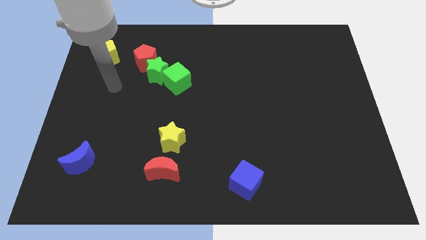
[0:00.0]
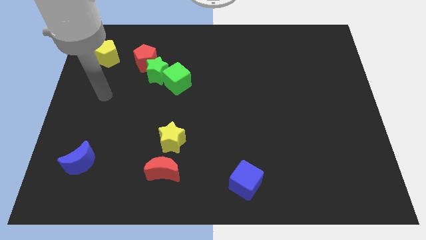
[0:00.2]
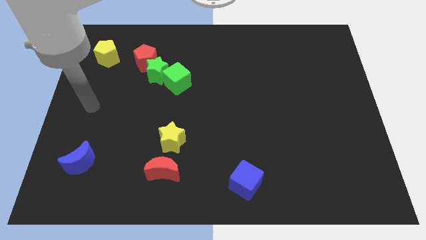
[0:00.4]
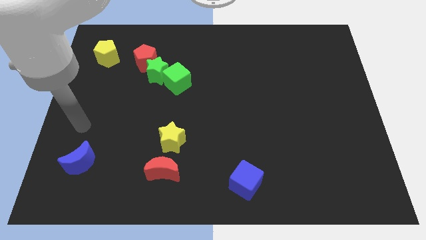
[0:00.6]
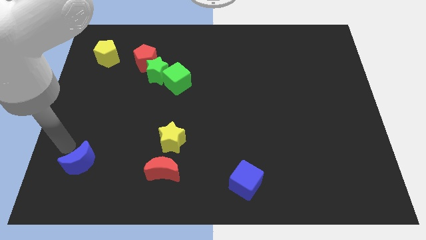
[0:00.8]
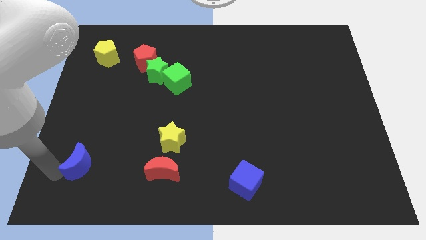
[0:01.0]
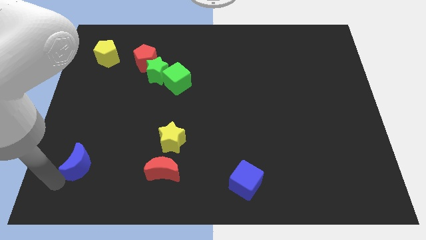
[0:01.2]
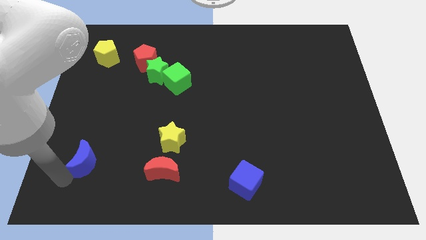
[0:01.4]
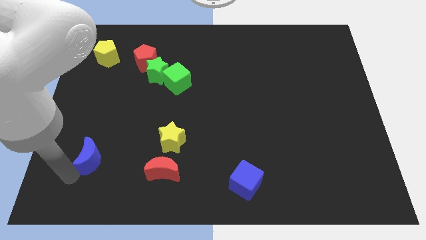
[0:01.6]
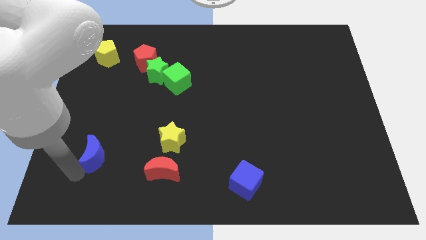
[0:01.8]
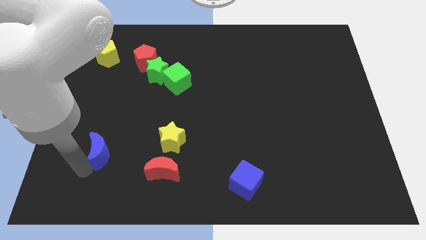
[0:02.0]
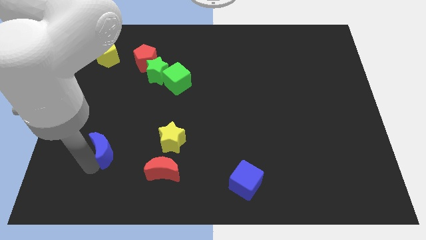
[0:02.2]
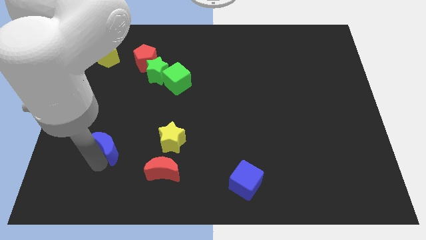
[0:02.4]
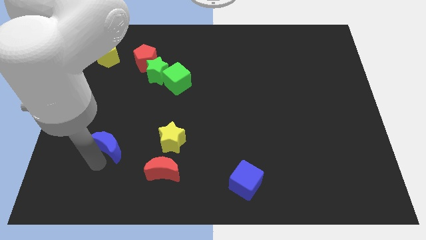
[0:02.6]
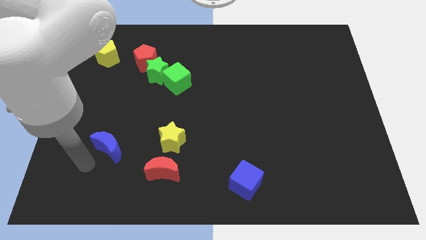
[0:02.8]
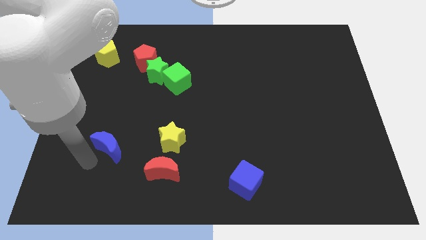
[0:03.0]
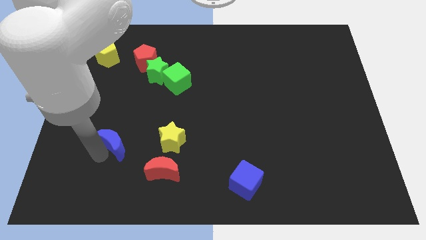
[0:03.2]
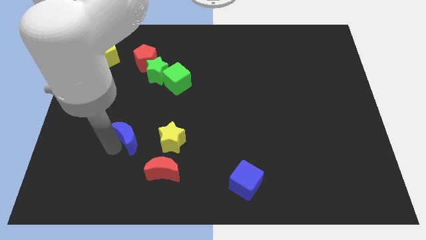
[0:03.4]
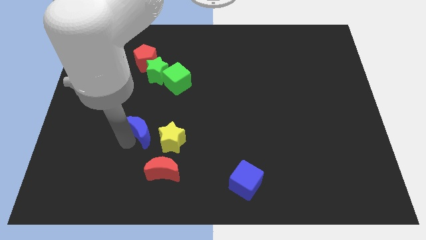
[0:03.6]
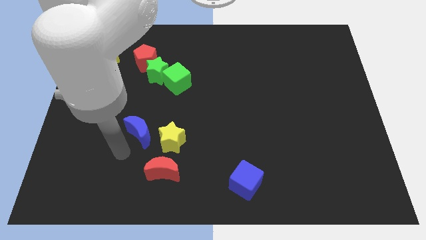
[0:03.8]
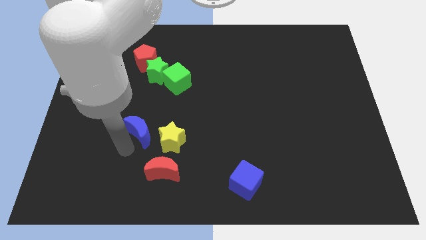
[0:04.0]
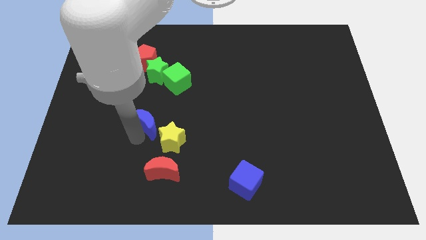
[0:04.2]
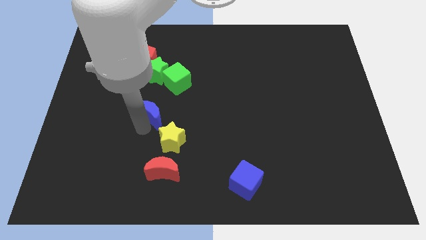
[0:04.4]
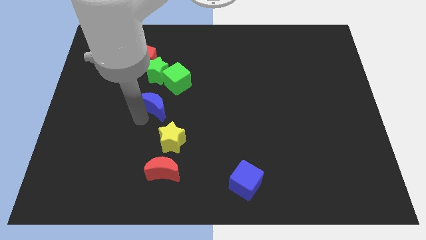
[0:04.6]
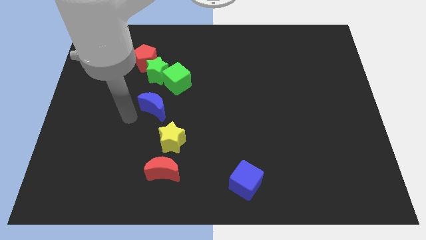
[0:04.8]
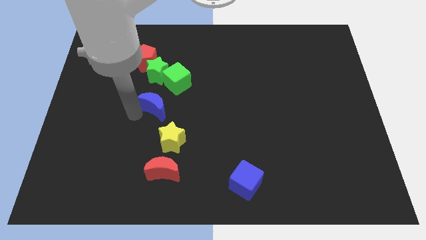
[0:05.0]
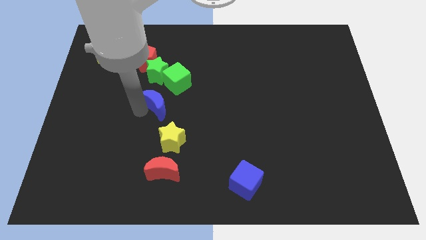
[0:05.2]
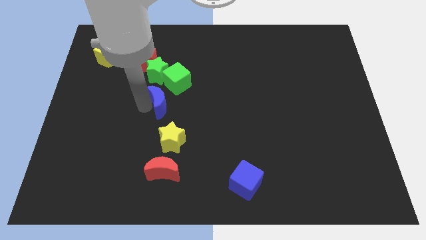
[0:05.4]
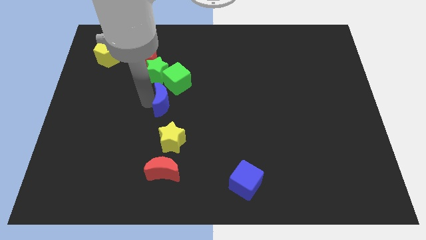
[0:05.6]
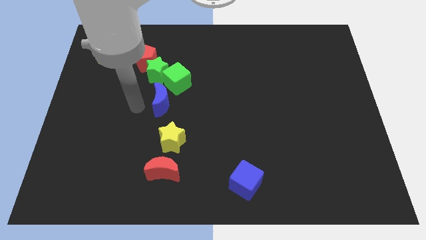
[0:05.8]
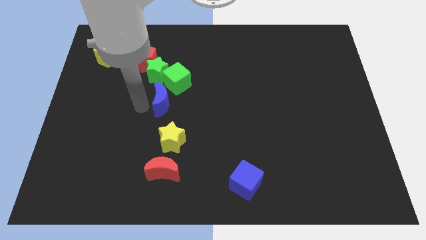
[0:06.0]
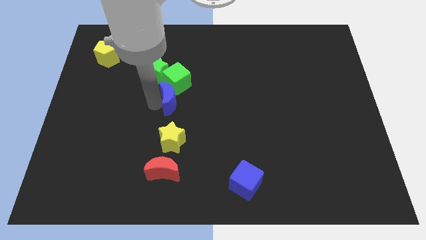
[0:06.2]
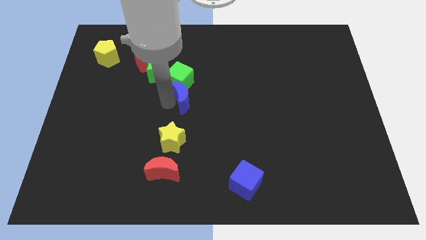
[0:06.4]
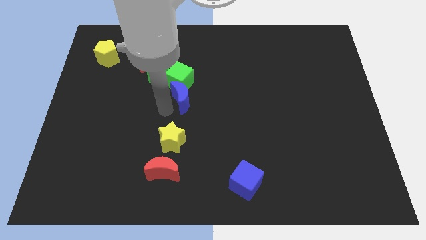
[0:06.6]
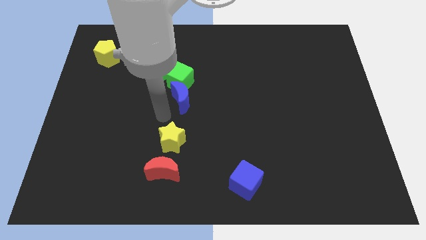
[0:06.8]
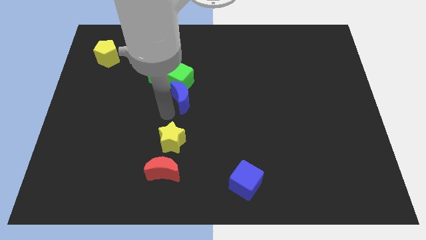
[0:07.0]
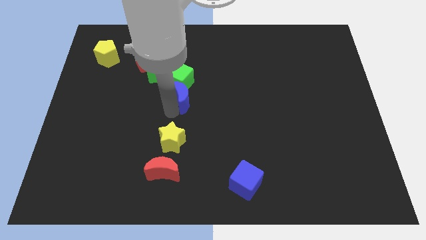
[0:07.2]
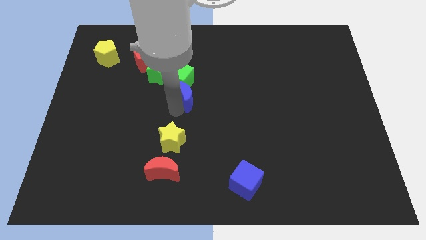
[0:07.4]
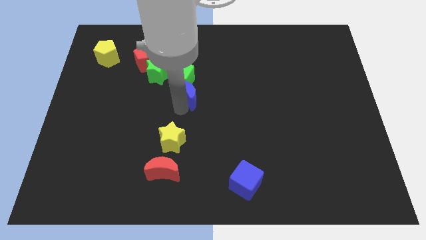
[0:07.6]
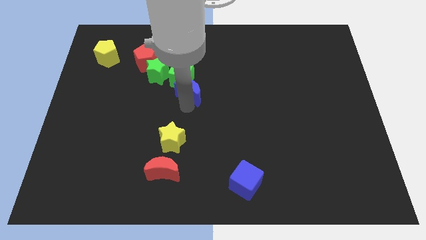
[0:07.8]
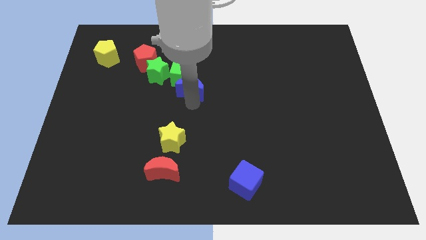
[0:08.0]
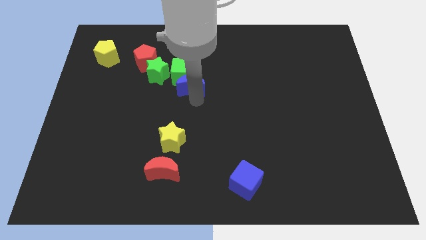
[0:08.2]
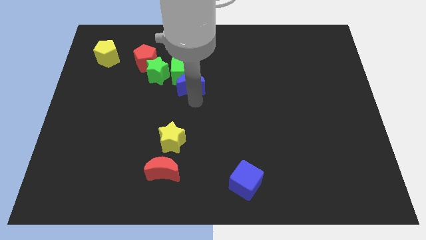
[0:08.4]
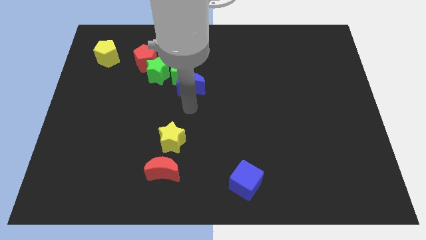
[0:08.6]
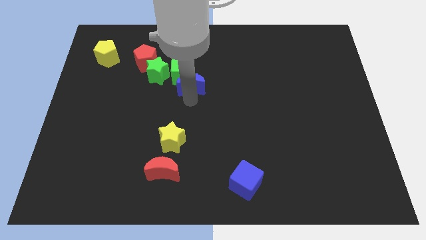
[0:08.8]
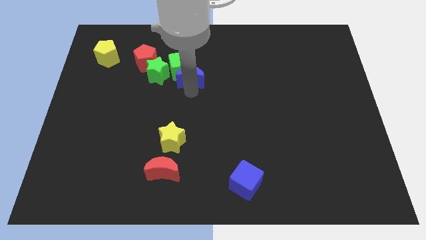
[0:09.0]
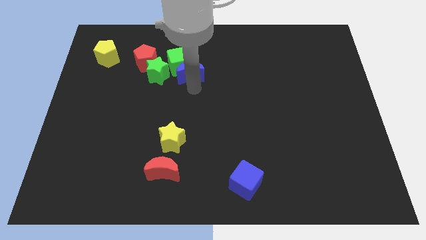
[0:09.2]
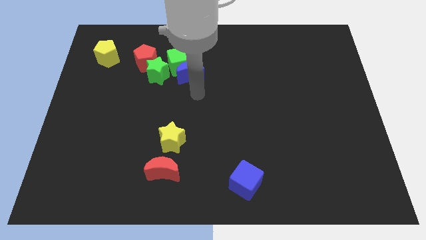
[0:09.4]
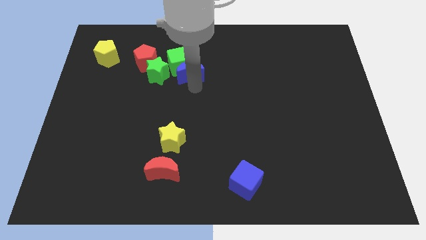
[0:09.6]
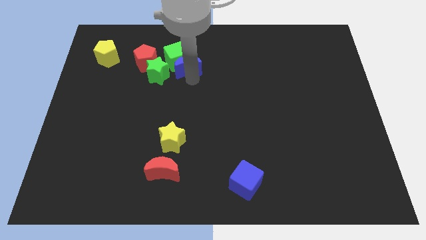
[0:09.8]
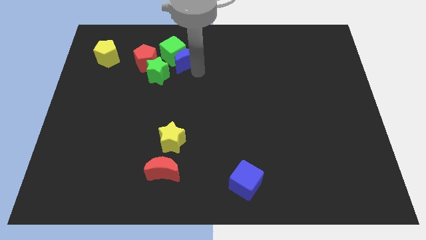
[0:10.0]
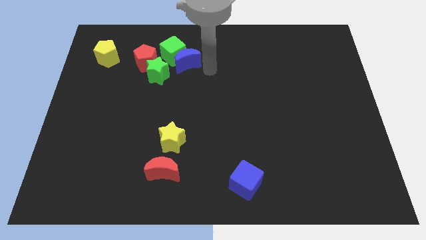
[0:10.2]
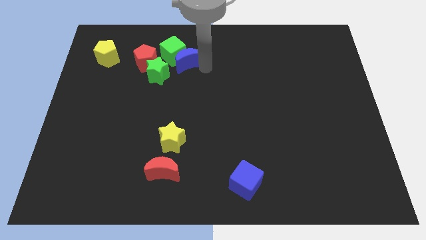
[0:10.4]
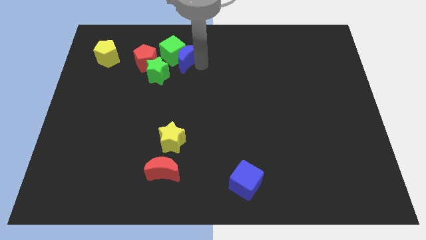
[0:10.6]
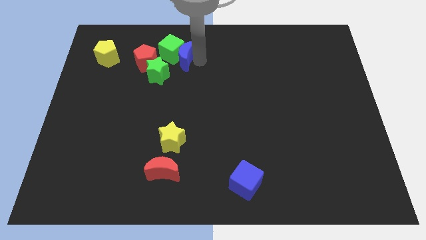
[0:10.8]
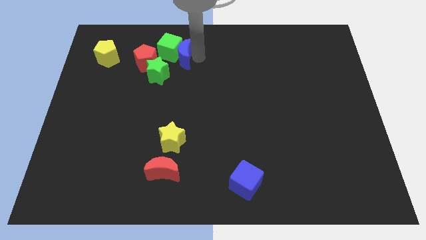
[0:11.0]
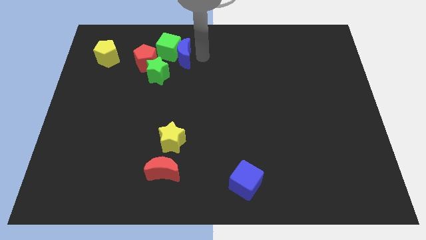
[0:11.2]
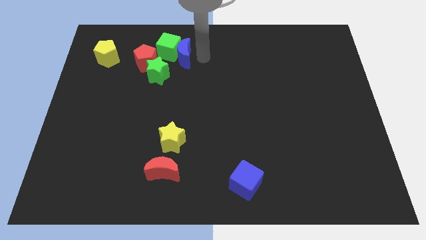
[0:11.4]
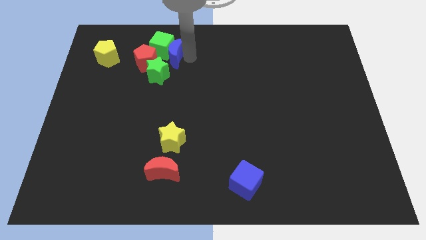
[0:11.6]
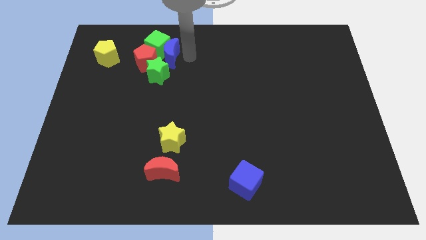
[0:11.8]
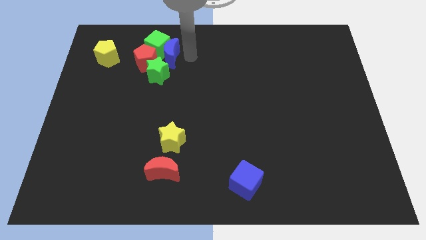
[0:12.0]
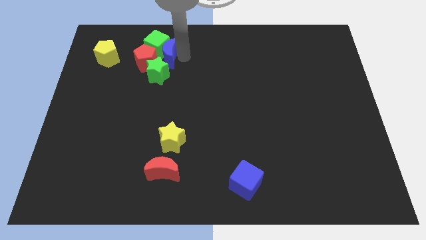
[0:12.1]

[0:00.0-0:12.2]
put the blue moon right of the yellow pentagon

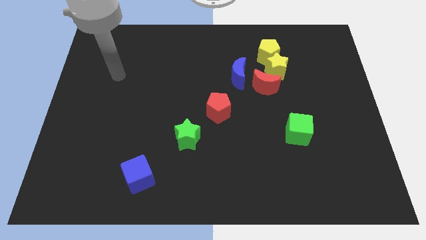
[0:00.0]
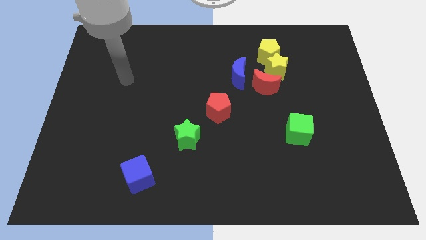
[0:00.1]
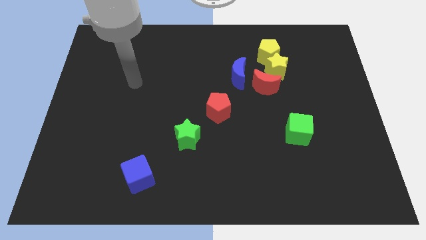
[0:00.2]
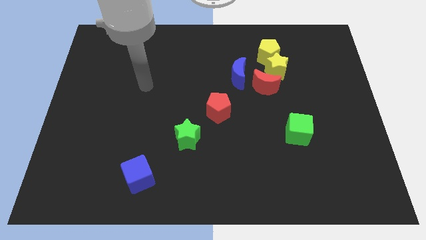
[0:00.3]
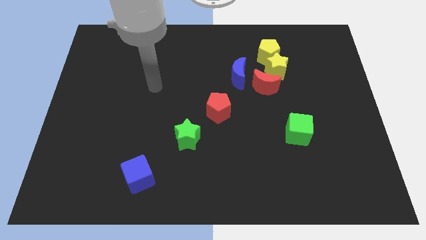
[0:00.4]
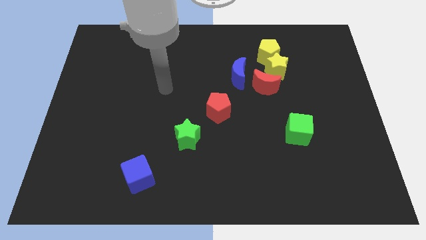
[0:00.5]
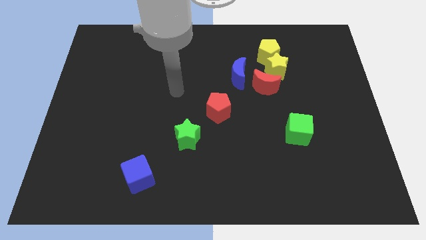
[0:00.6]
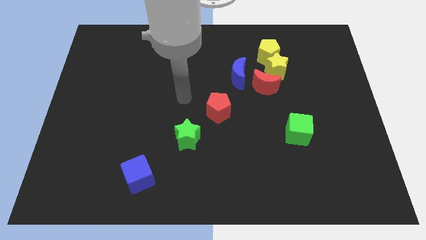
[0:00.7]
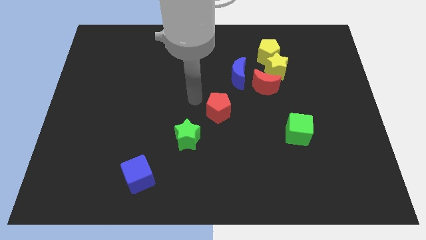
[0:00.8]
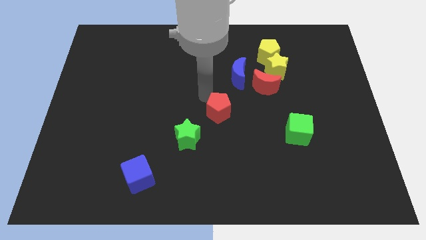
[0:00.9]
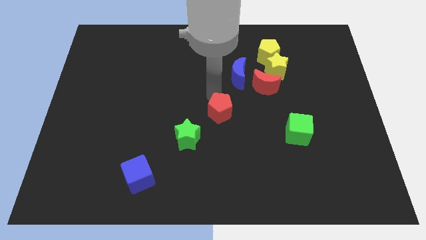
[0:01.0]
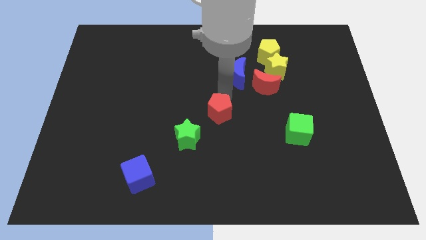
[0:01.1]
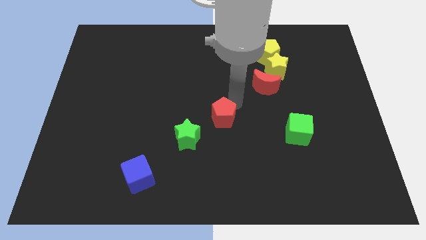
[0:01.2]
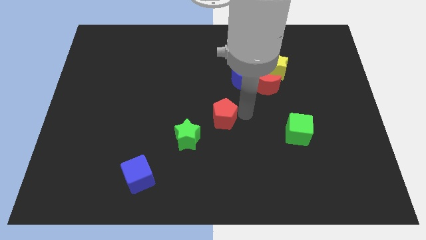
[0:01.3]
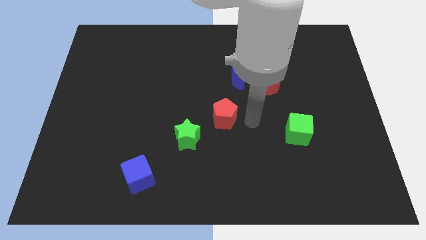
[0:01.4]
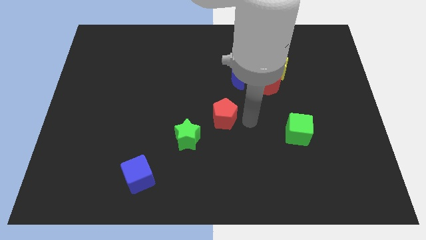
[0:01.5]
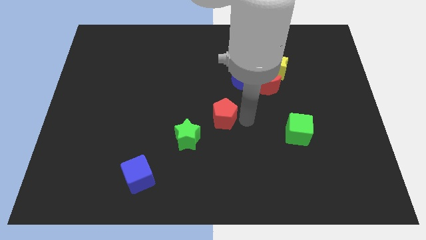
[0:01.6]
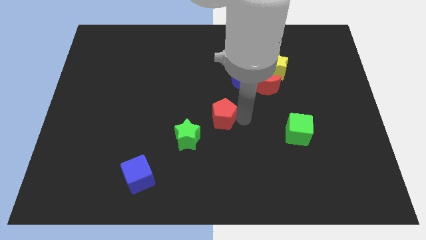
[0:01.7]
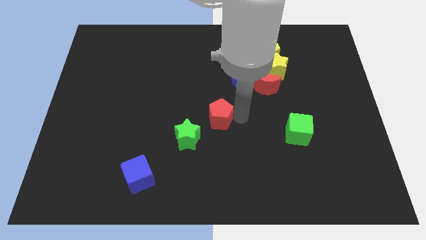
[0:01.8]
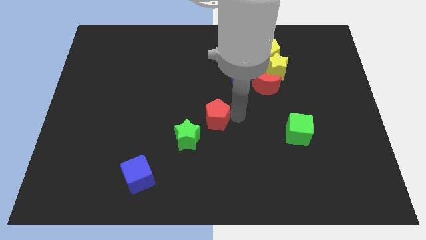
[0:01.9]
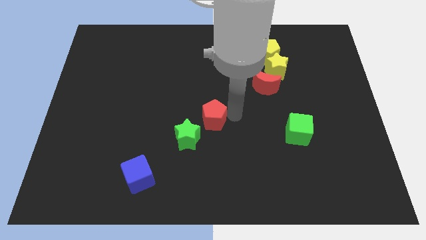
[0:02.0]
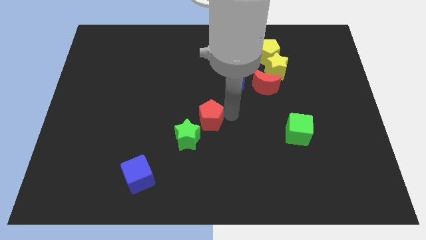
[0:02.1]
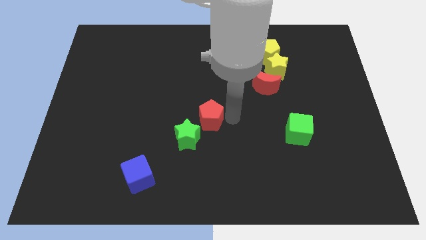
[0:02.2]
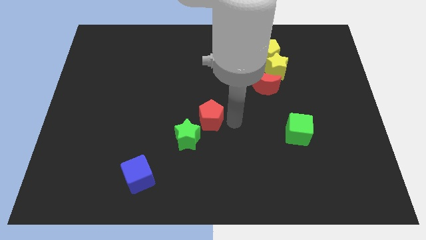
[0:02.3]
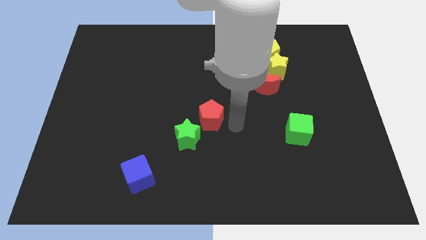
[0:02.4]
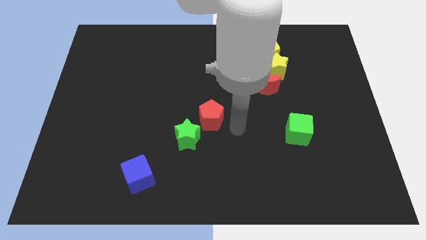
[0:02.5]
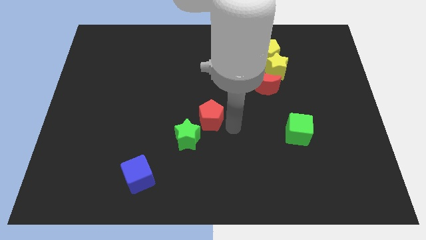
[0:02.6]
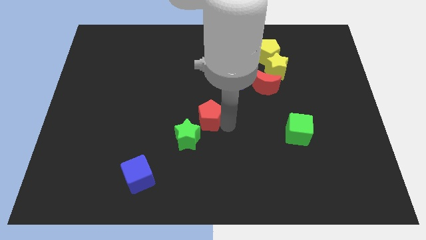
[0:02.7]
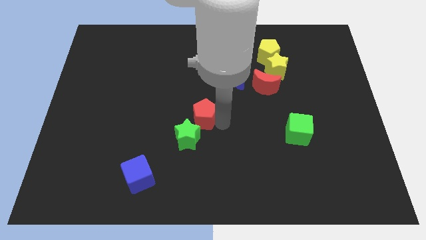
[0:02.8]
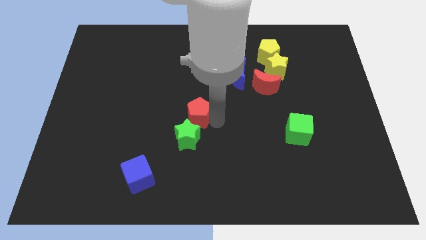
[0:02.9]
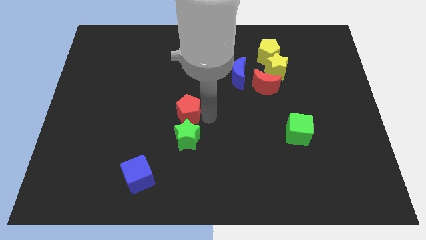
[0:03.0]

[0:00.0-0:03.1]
push the red pentagon to the top left side of the green star
